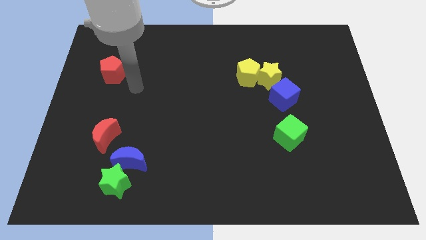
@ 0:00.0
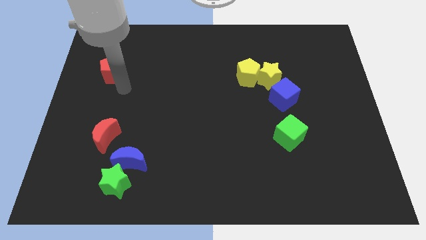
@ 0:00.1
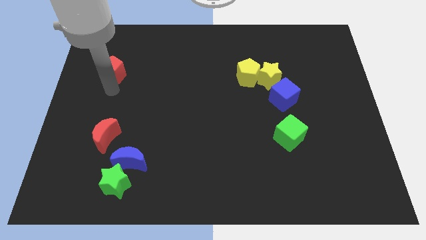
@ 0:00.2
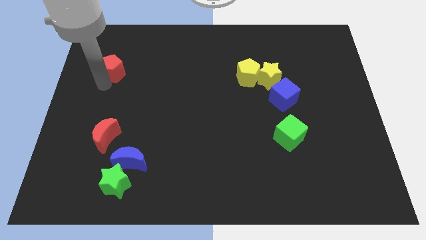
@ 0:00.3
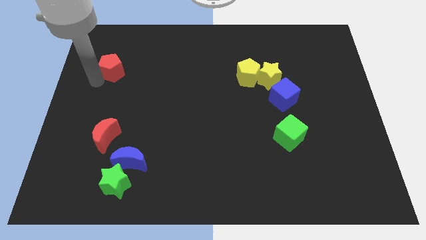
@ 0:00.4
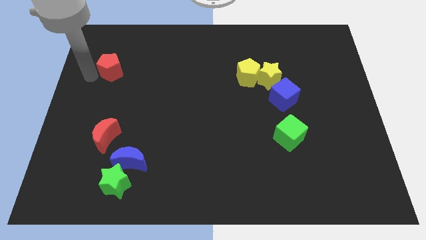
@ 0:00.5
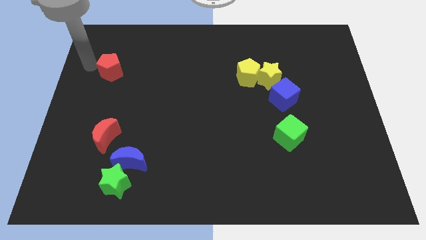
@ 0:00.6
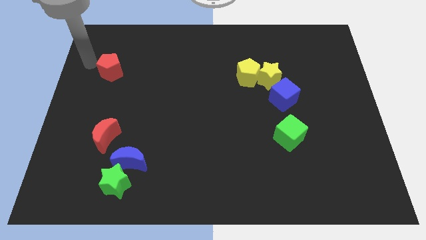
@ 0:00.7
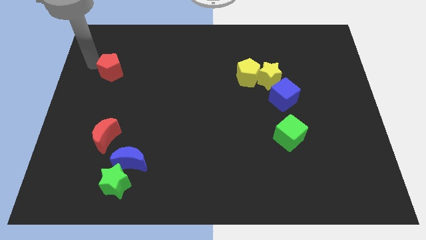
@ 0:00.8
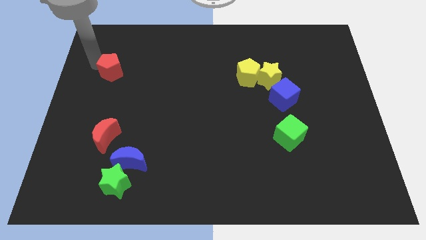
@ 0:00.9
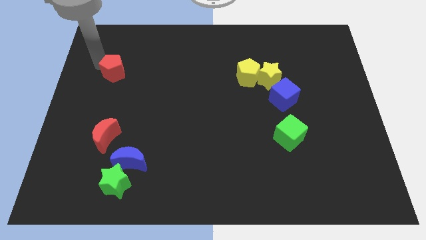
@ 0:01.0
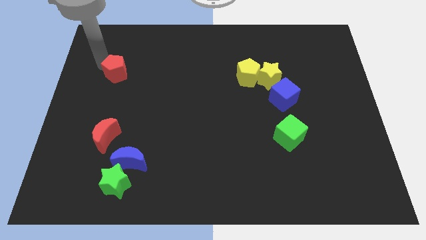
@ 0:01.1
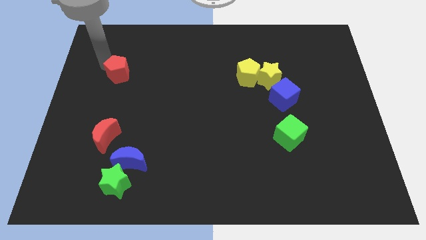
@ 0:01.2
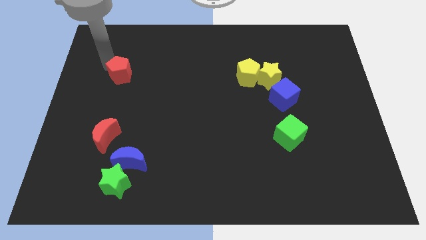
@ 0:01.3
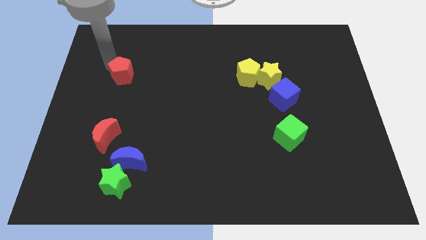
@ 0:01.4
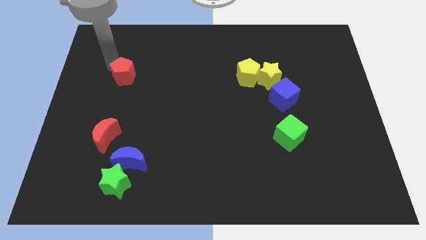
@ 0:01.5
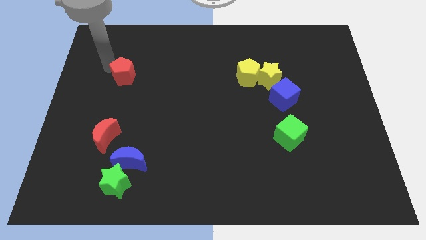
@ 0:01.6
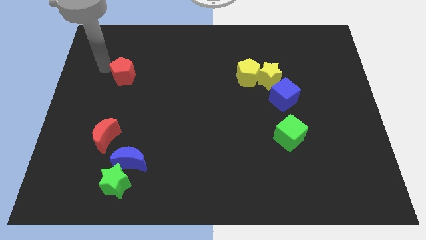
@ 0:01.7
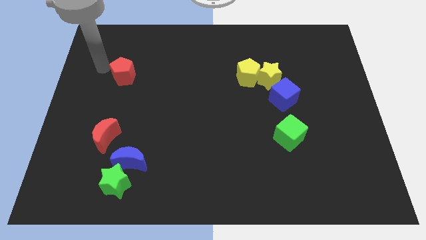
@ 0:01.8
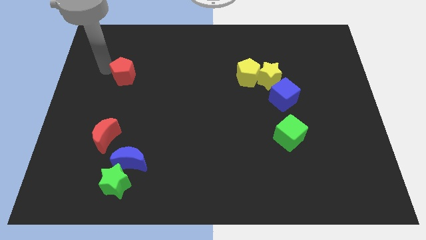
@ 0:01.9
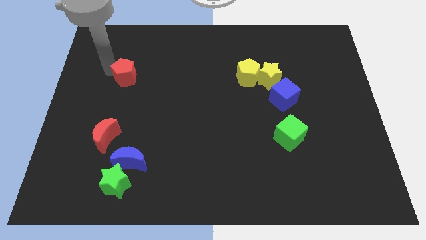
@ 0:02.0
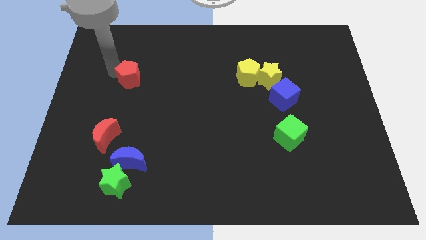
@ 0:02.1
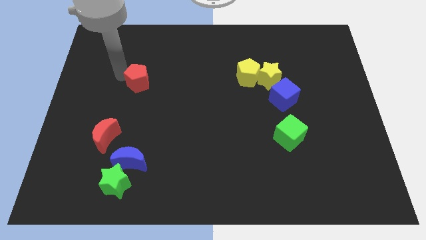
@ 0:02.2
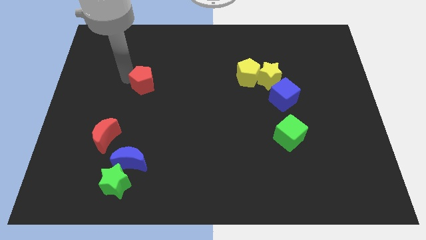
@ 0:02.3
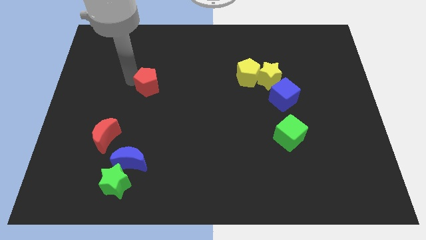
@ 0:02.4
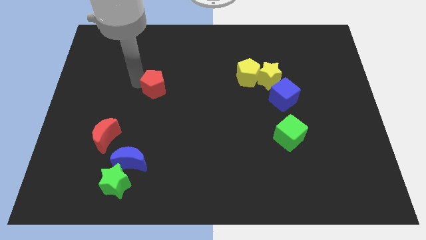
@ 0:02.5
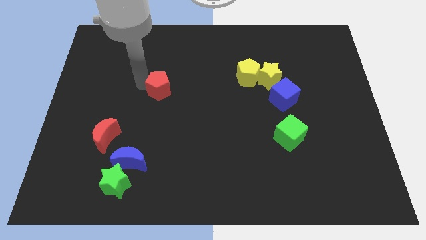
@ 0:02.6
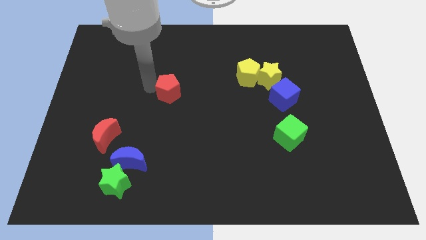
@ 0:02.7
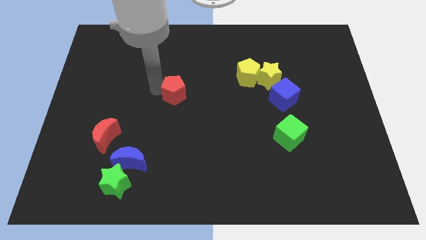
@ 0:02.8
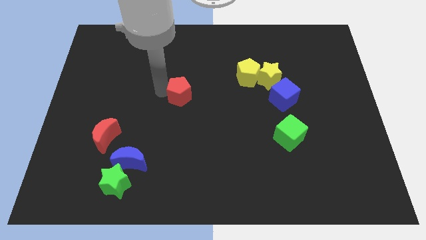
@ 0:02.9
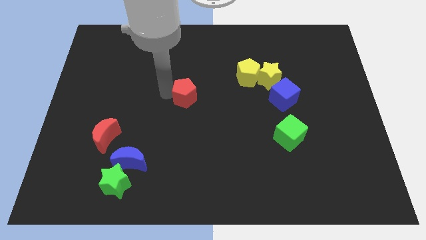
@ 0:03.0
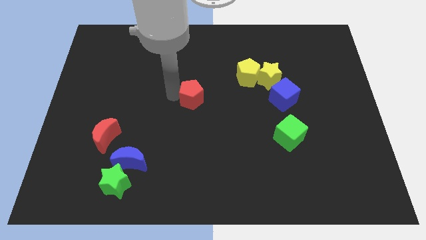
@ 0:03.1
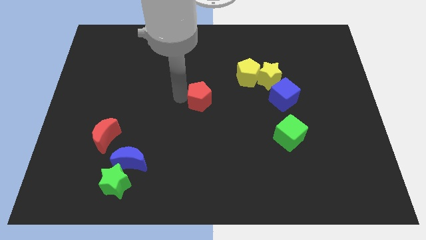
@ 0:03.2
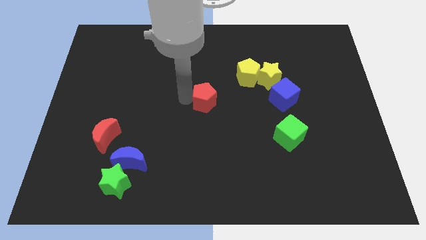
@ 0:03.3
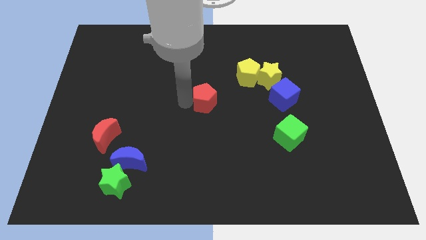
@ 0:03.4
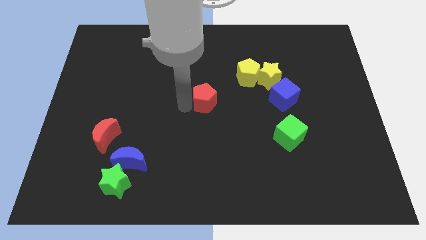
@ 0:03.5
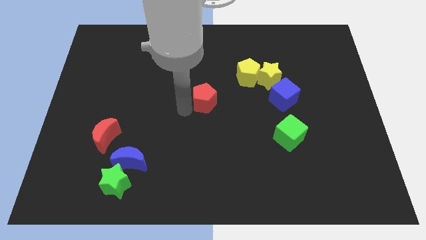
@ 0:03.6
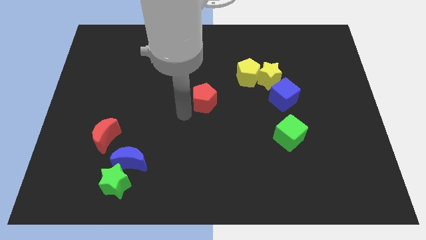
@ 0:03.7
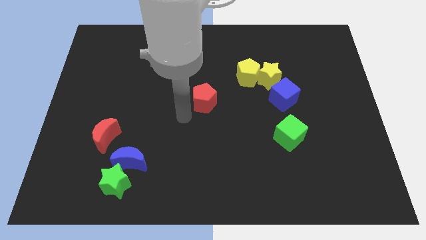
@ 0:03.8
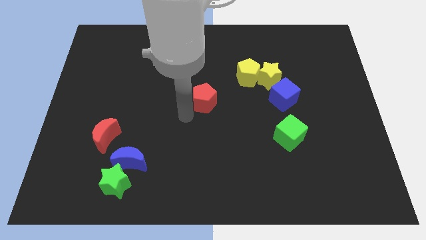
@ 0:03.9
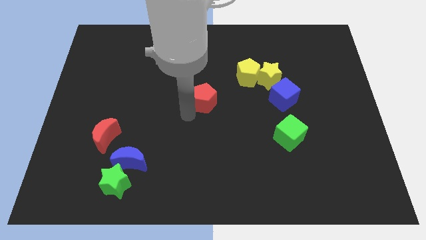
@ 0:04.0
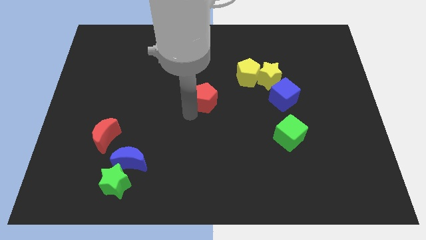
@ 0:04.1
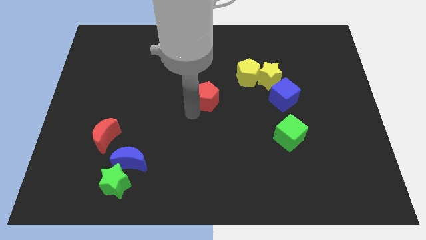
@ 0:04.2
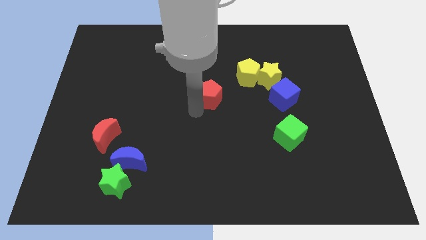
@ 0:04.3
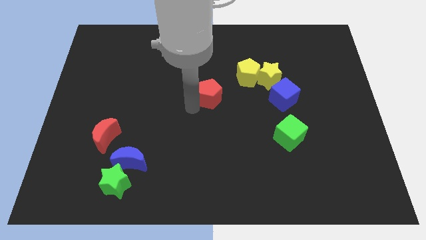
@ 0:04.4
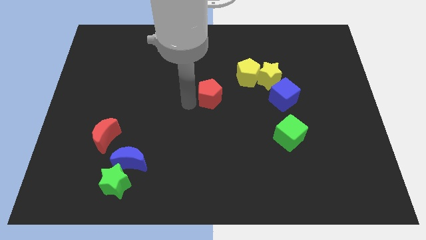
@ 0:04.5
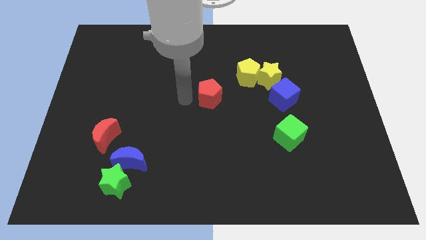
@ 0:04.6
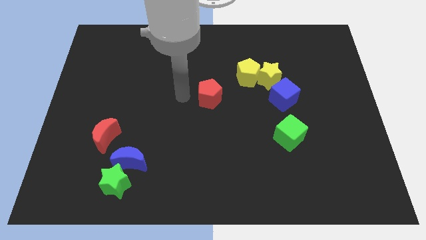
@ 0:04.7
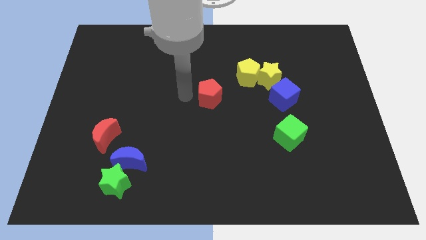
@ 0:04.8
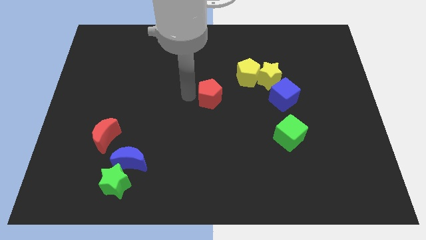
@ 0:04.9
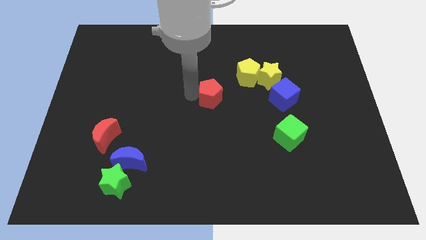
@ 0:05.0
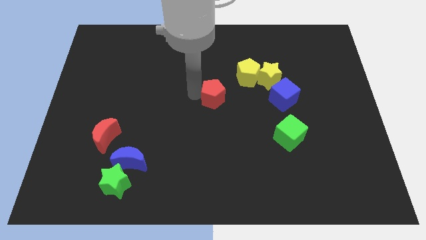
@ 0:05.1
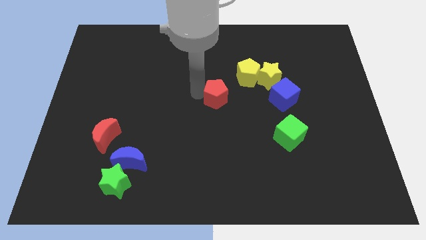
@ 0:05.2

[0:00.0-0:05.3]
slide the red pentagon to the left side of the blue cube
